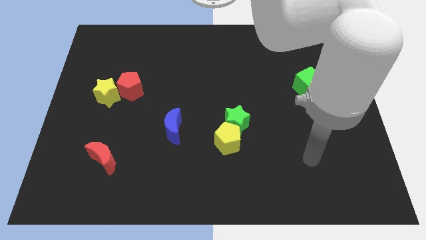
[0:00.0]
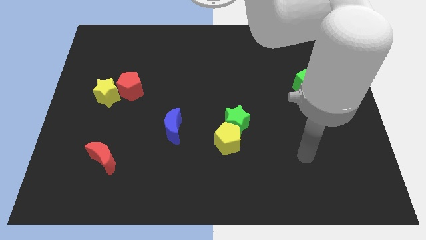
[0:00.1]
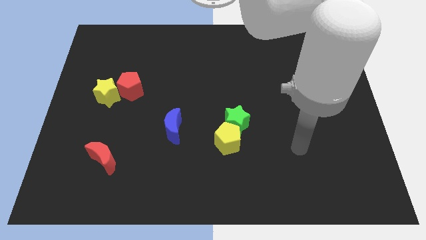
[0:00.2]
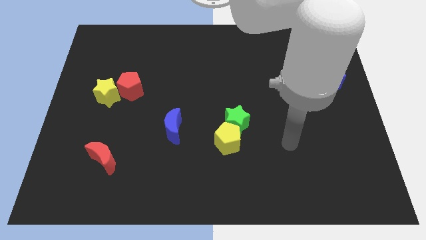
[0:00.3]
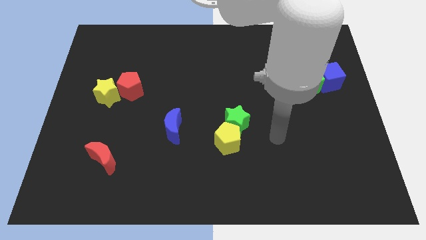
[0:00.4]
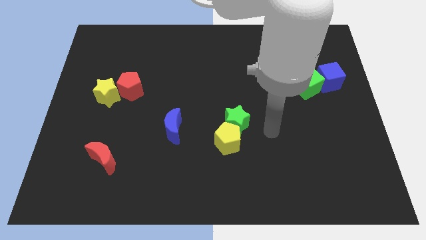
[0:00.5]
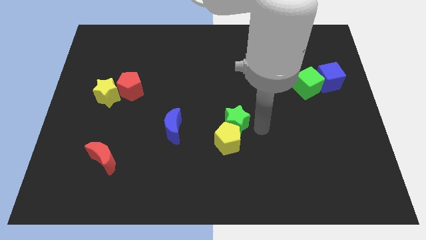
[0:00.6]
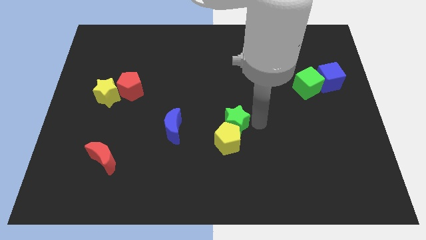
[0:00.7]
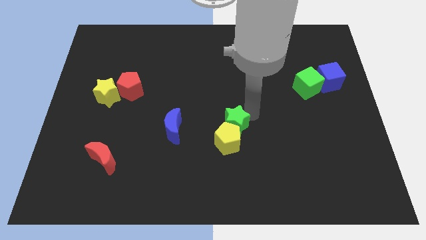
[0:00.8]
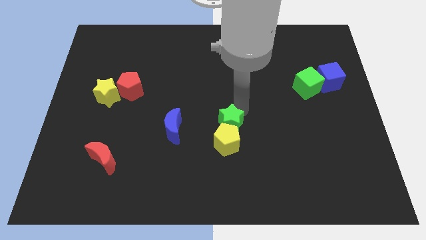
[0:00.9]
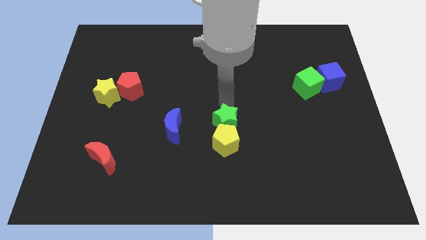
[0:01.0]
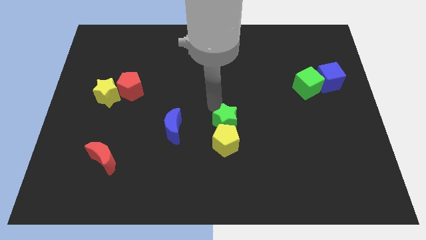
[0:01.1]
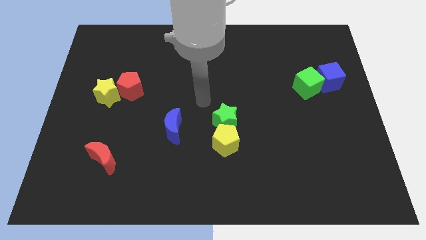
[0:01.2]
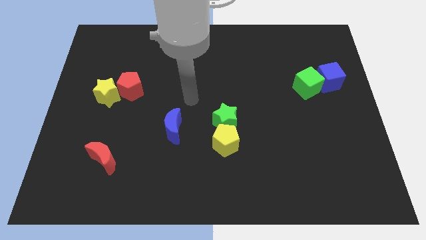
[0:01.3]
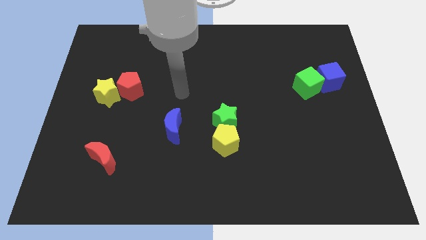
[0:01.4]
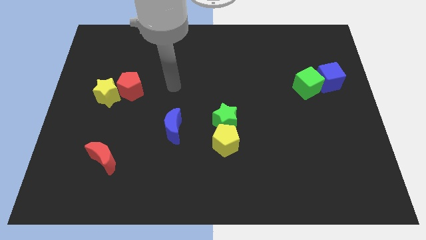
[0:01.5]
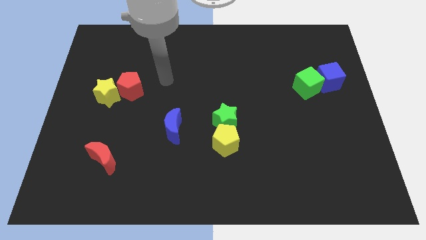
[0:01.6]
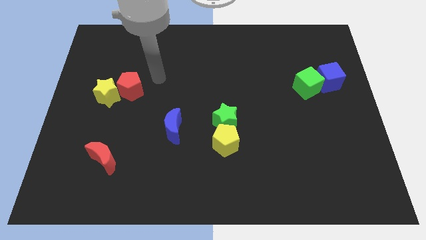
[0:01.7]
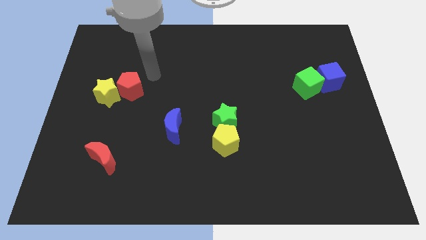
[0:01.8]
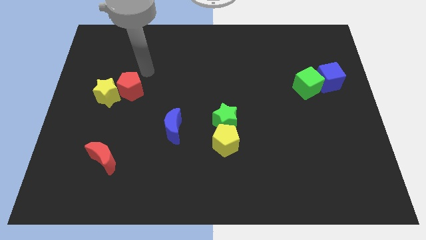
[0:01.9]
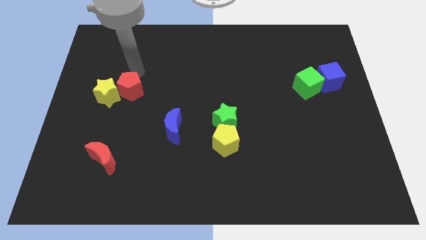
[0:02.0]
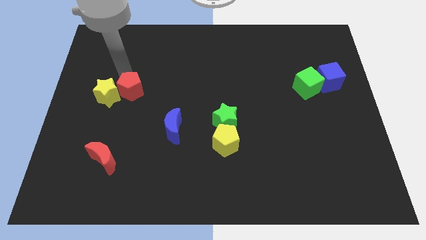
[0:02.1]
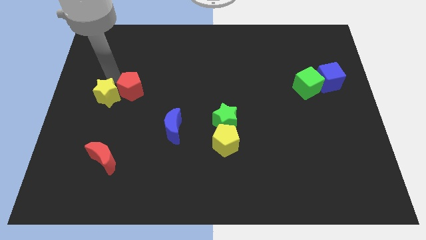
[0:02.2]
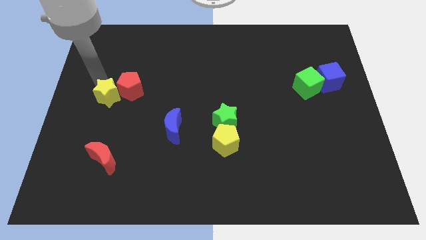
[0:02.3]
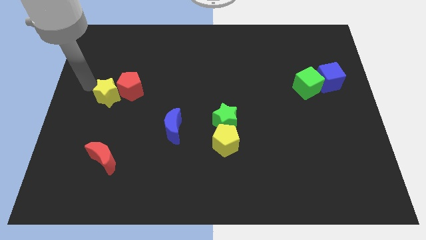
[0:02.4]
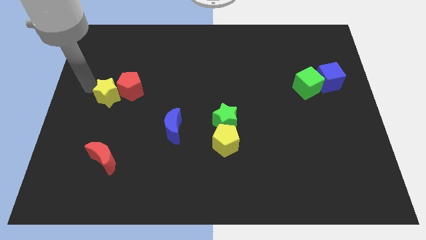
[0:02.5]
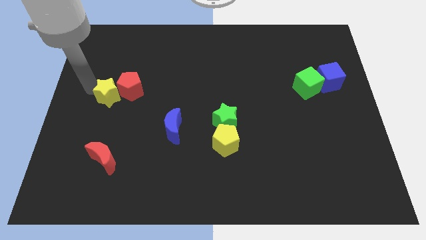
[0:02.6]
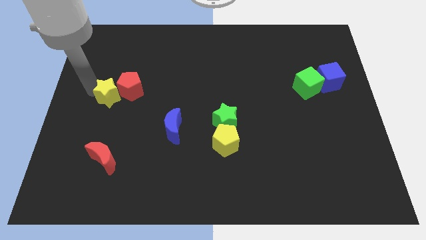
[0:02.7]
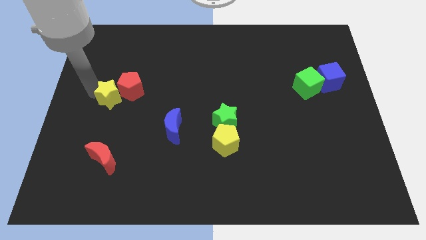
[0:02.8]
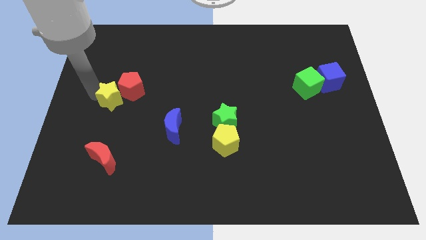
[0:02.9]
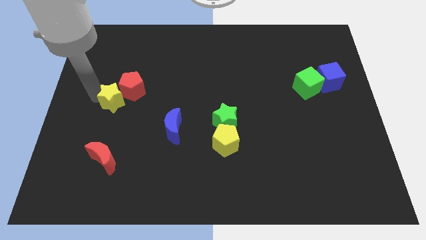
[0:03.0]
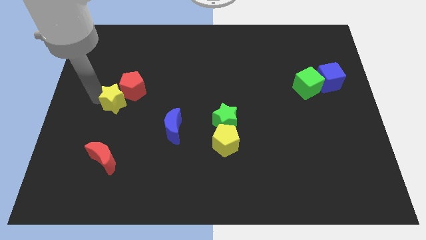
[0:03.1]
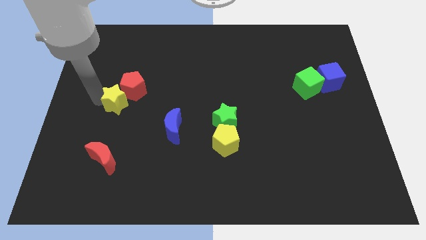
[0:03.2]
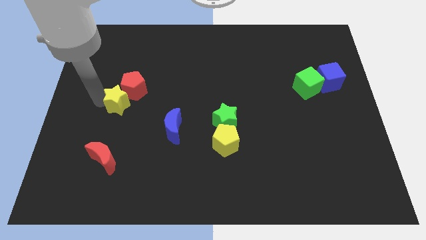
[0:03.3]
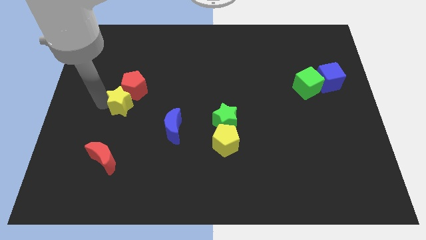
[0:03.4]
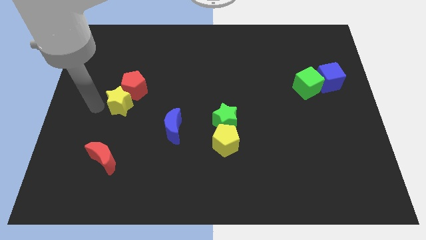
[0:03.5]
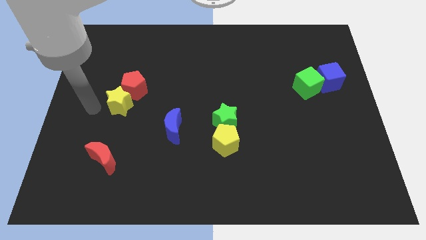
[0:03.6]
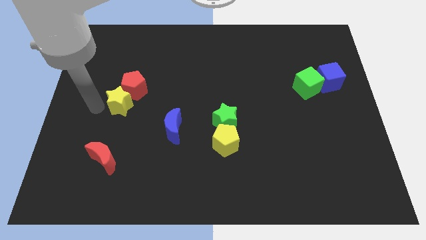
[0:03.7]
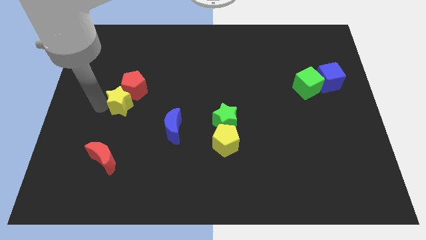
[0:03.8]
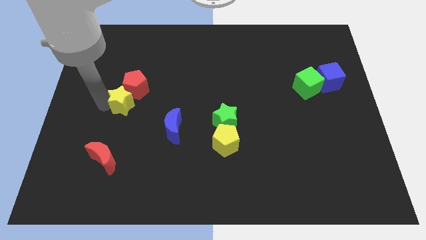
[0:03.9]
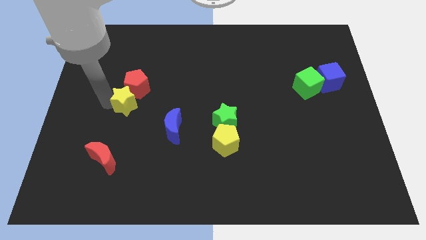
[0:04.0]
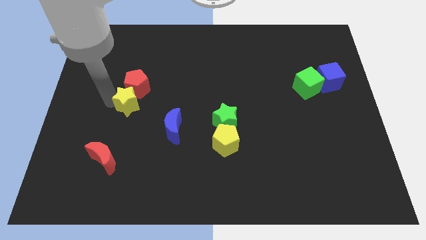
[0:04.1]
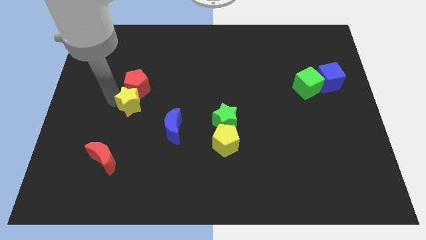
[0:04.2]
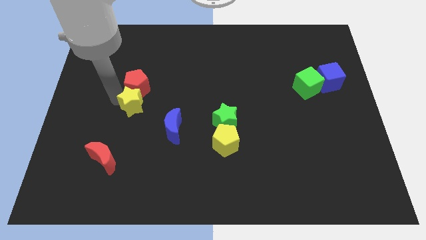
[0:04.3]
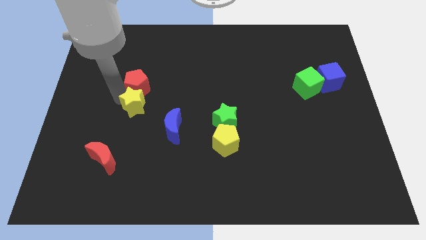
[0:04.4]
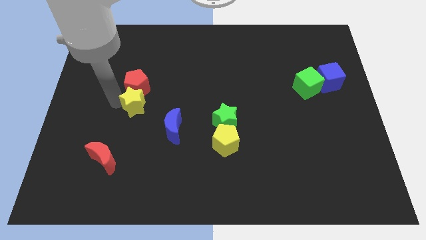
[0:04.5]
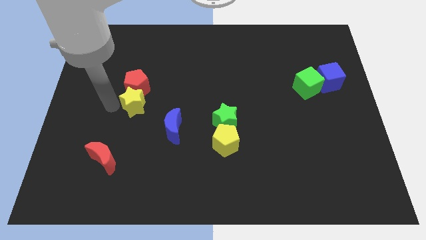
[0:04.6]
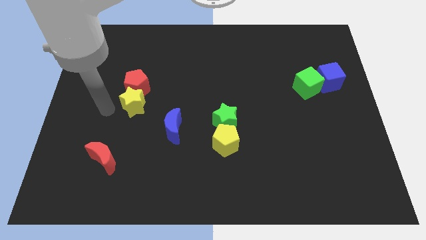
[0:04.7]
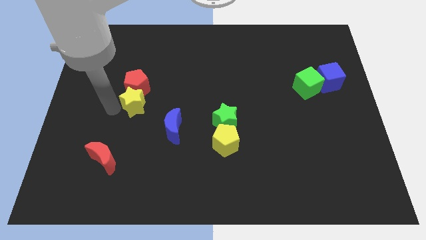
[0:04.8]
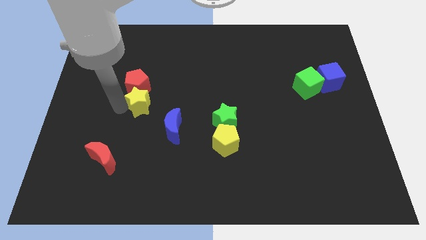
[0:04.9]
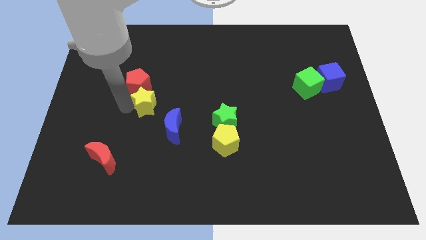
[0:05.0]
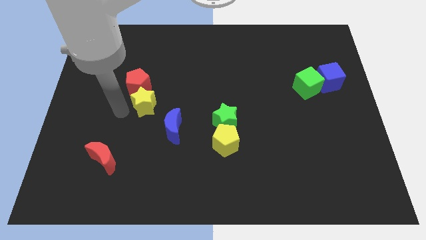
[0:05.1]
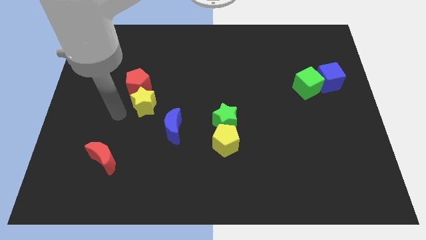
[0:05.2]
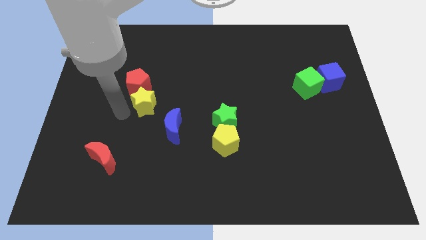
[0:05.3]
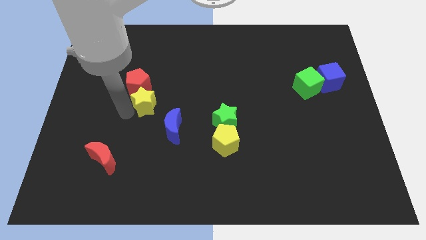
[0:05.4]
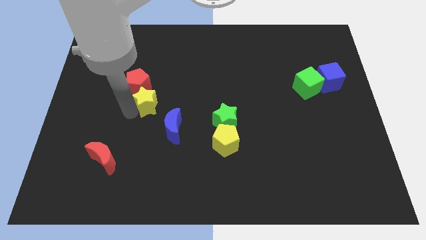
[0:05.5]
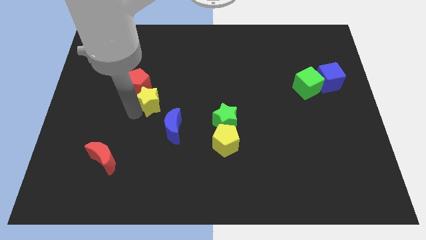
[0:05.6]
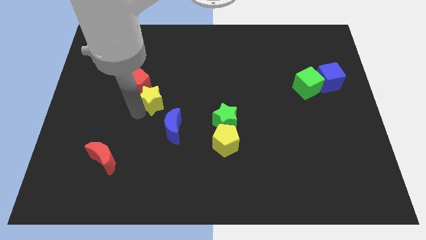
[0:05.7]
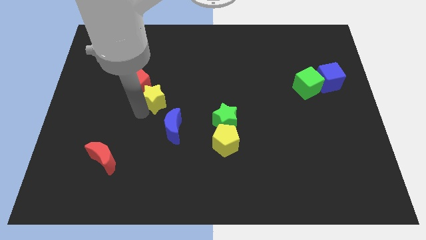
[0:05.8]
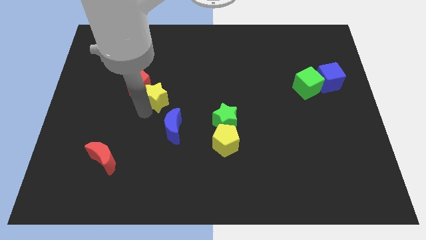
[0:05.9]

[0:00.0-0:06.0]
put the yellow star above the blue moon

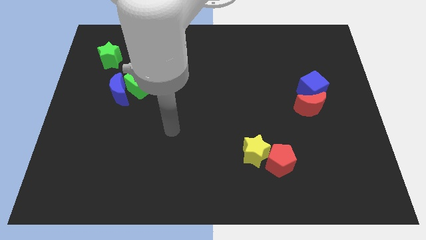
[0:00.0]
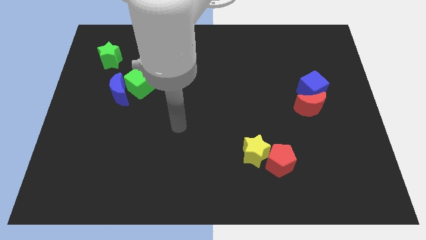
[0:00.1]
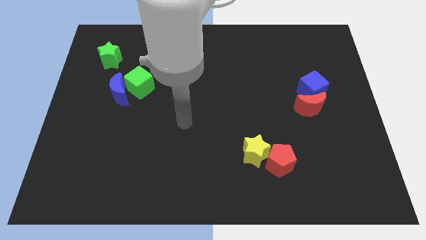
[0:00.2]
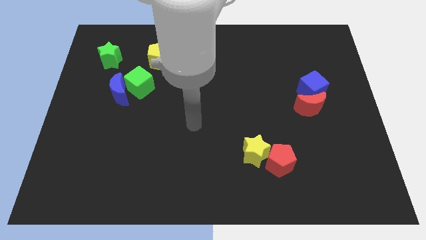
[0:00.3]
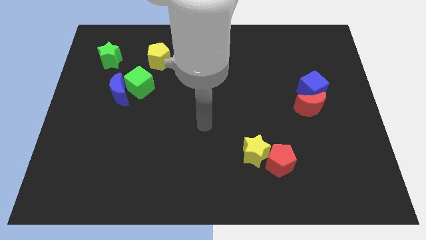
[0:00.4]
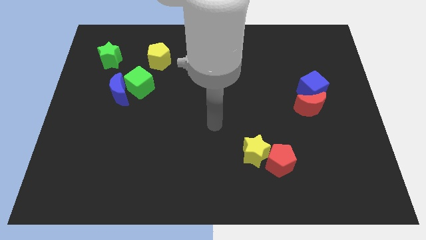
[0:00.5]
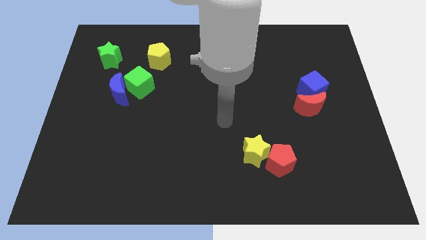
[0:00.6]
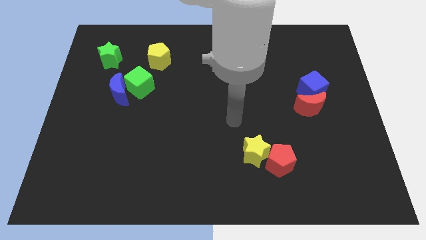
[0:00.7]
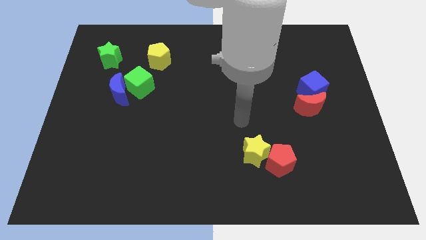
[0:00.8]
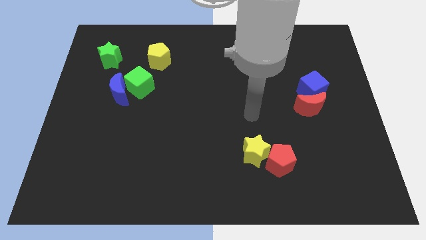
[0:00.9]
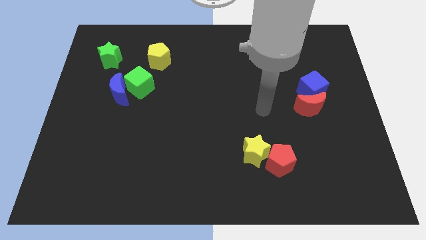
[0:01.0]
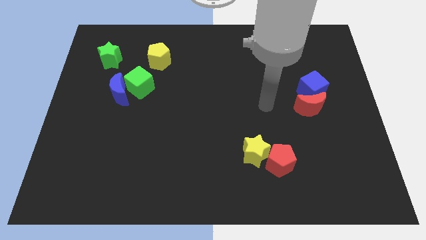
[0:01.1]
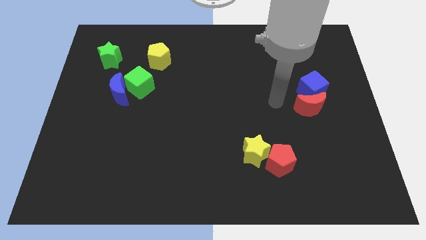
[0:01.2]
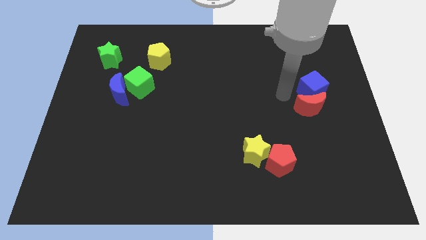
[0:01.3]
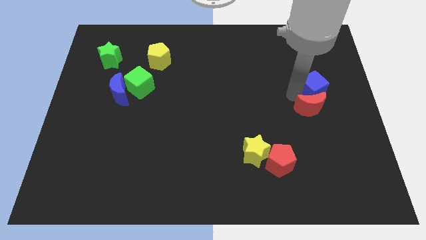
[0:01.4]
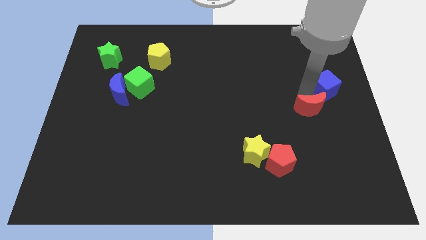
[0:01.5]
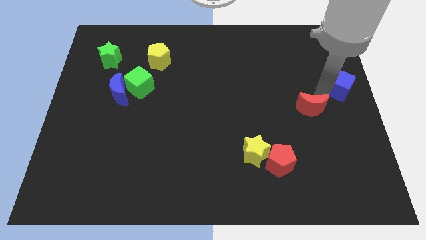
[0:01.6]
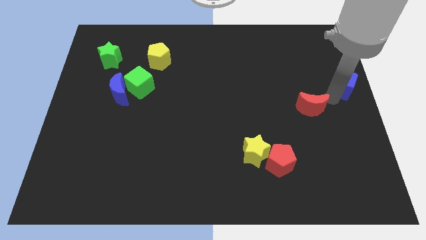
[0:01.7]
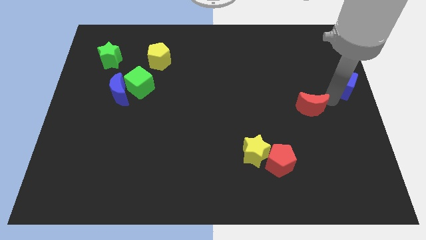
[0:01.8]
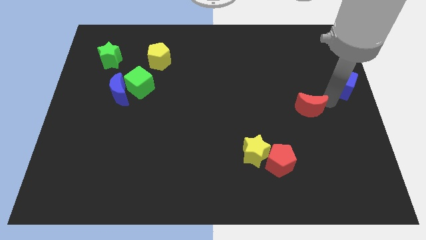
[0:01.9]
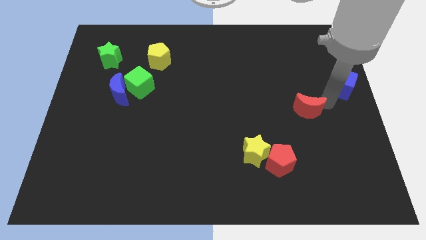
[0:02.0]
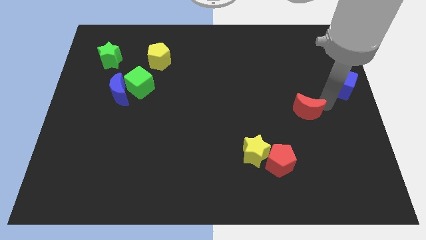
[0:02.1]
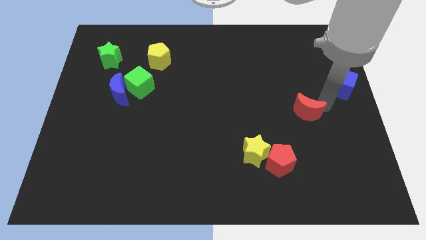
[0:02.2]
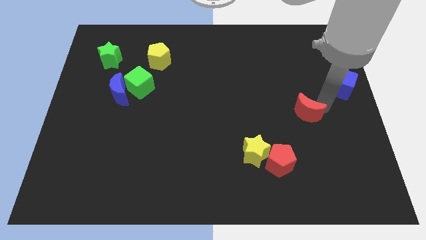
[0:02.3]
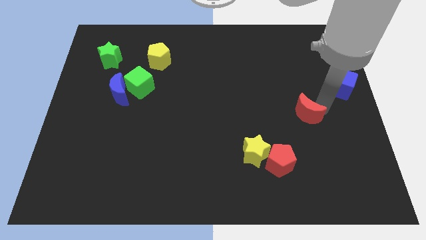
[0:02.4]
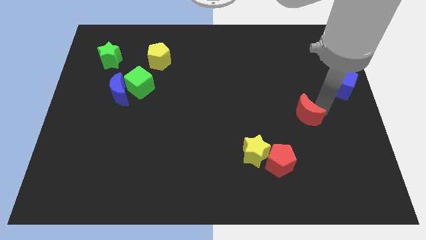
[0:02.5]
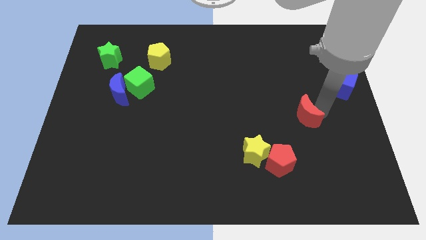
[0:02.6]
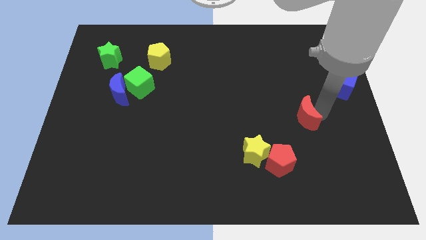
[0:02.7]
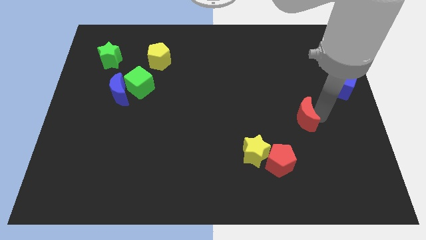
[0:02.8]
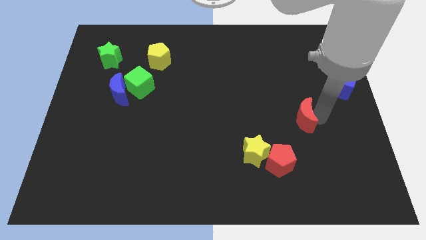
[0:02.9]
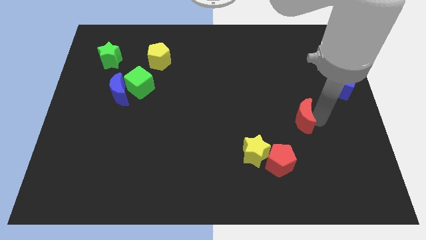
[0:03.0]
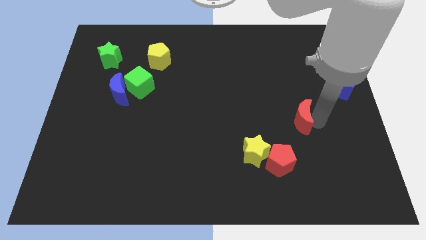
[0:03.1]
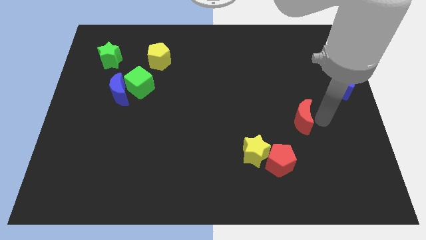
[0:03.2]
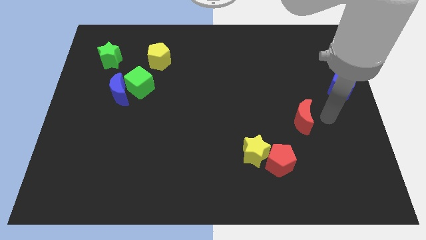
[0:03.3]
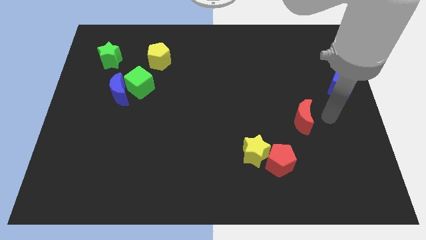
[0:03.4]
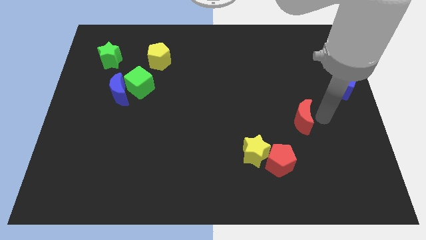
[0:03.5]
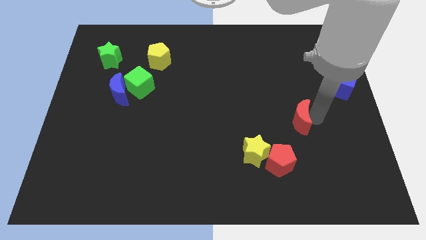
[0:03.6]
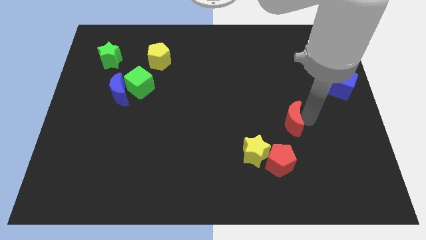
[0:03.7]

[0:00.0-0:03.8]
move the red moon above the red pentagon
